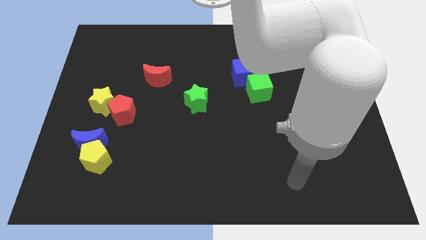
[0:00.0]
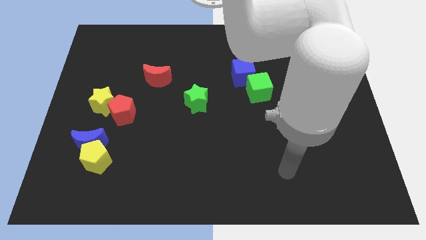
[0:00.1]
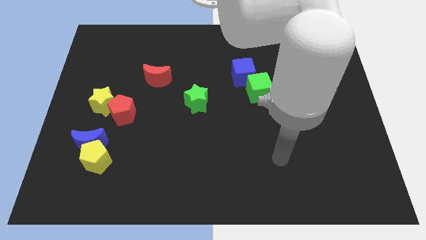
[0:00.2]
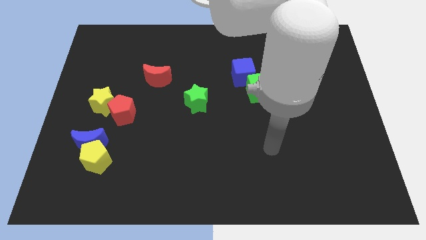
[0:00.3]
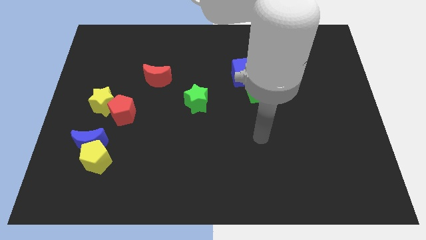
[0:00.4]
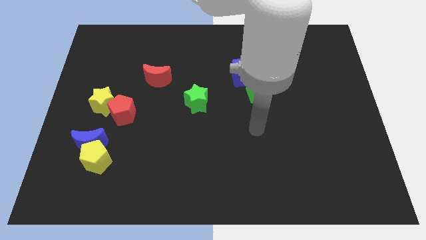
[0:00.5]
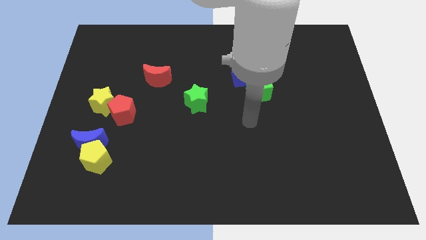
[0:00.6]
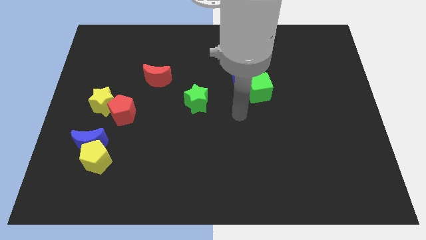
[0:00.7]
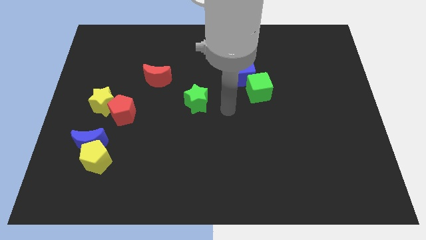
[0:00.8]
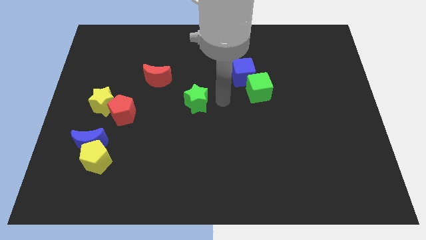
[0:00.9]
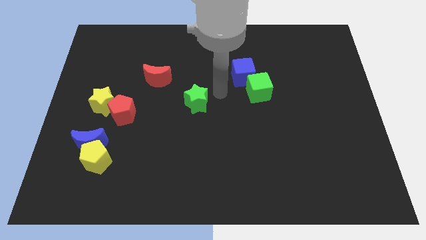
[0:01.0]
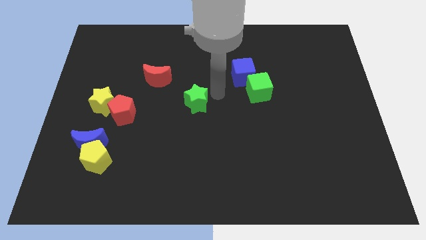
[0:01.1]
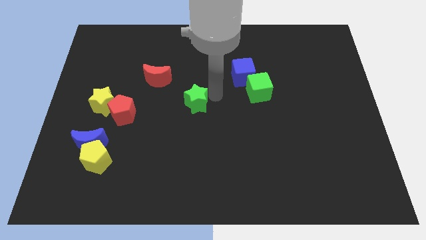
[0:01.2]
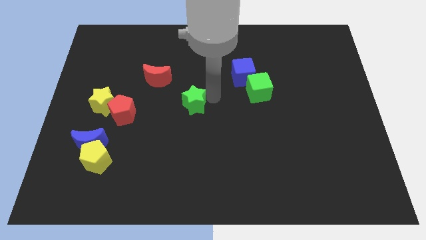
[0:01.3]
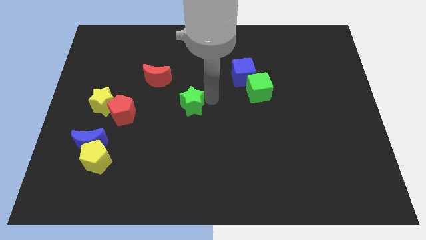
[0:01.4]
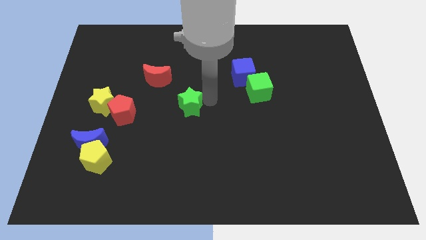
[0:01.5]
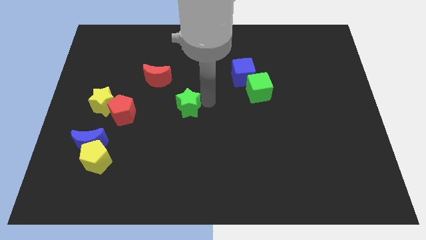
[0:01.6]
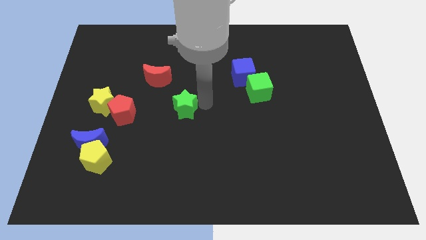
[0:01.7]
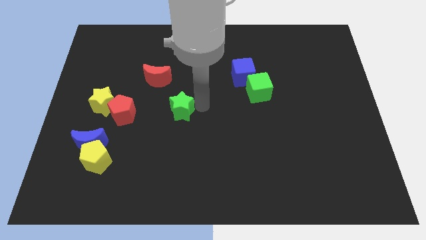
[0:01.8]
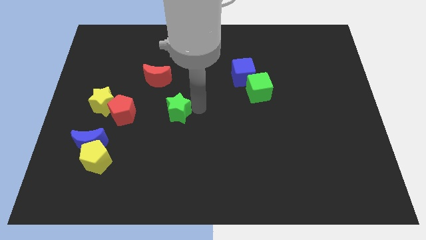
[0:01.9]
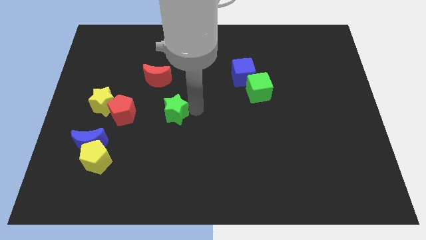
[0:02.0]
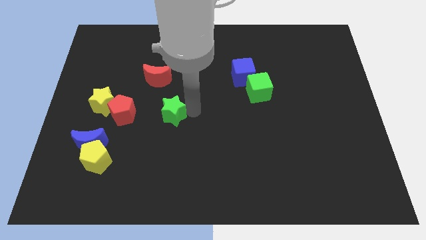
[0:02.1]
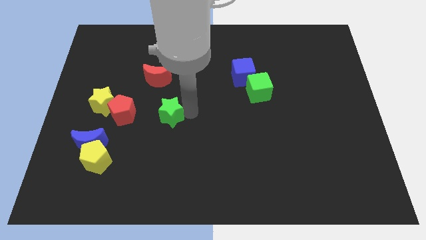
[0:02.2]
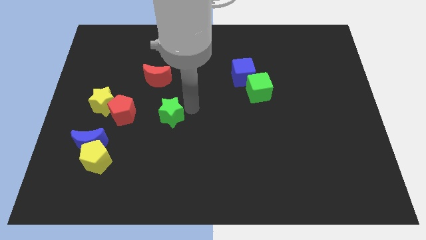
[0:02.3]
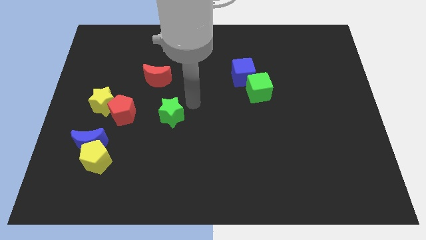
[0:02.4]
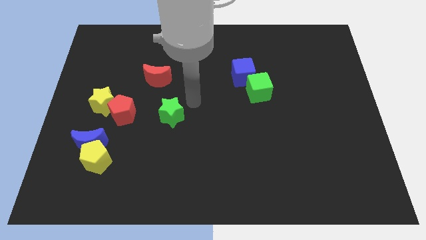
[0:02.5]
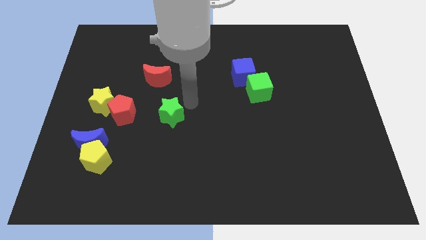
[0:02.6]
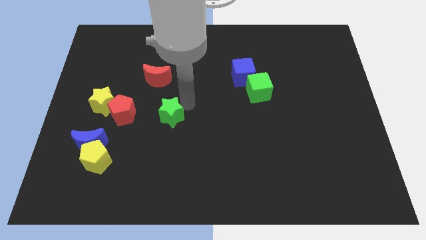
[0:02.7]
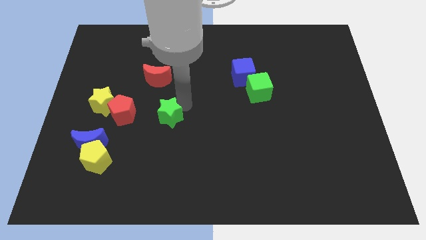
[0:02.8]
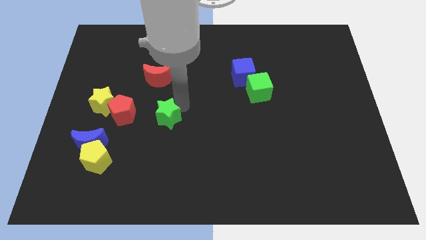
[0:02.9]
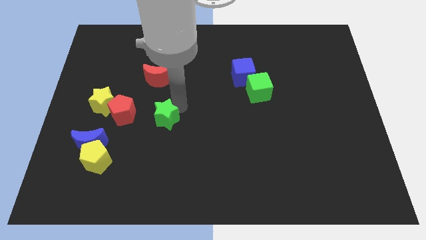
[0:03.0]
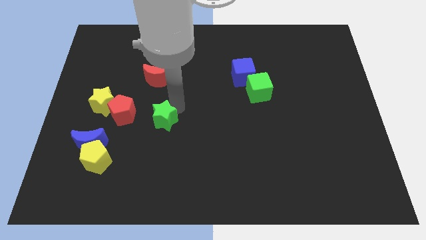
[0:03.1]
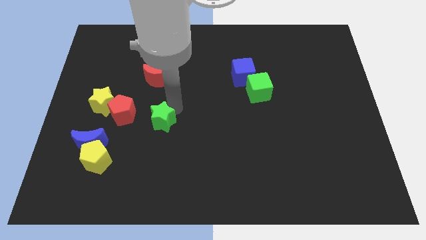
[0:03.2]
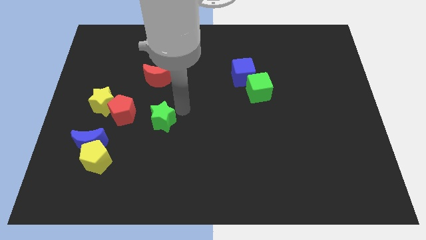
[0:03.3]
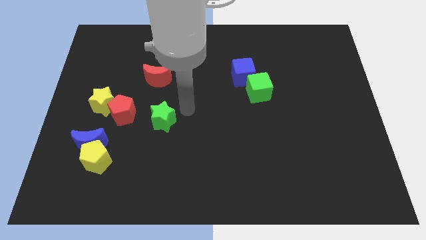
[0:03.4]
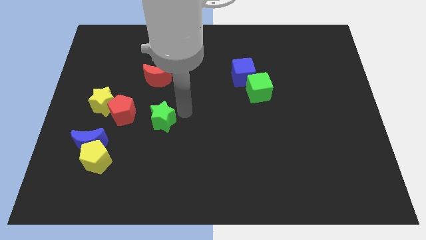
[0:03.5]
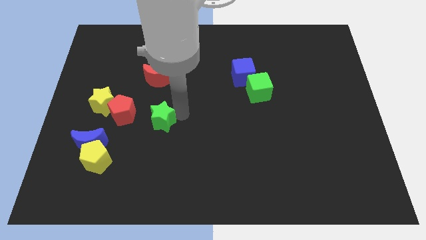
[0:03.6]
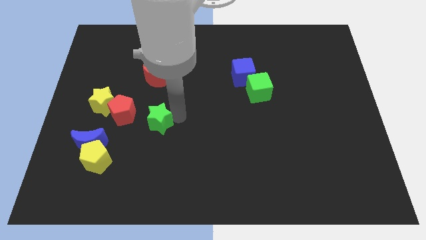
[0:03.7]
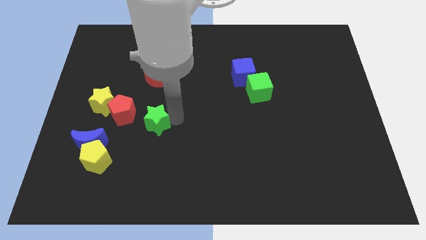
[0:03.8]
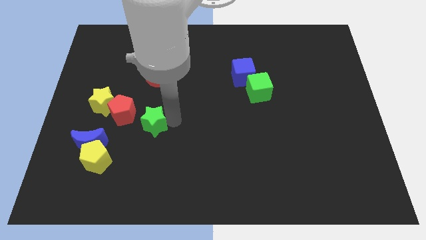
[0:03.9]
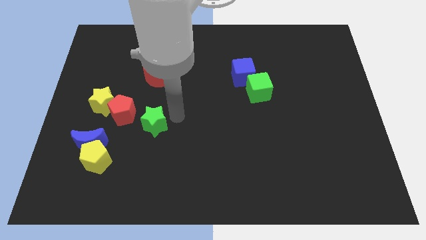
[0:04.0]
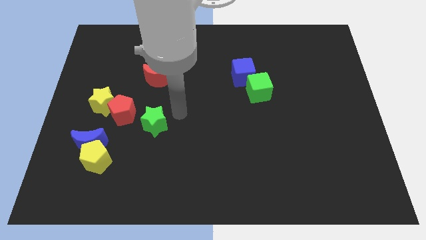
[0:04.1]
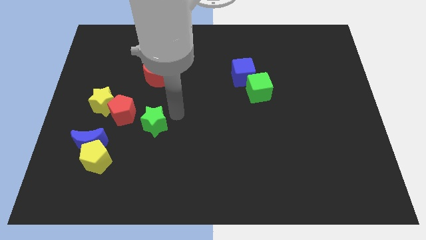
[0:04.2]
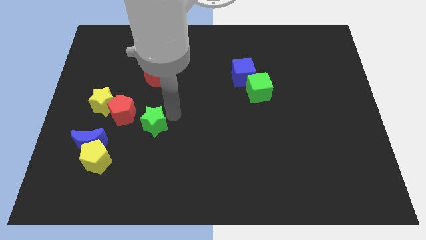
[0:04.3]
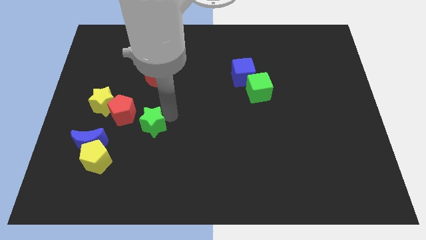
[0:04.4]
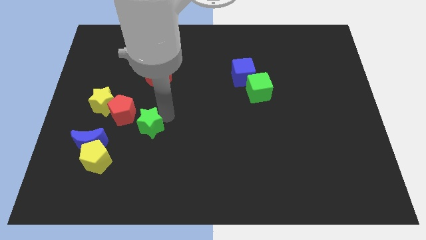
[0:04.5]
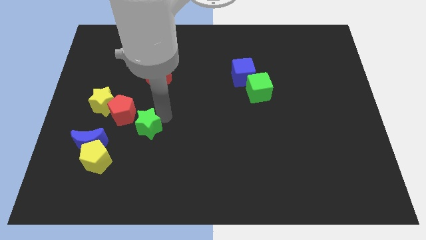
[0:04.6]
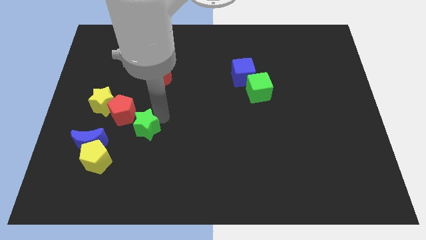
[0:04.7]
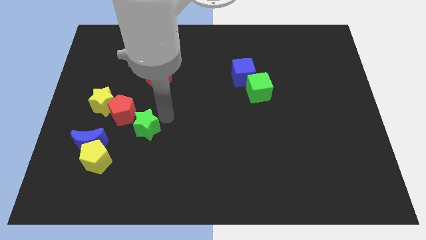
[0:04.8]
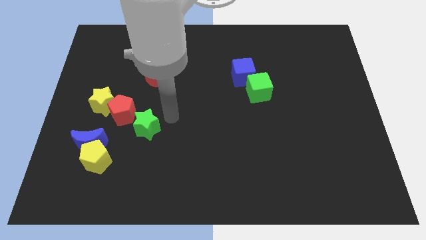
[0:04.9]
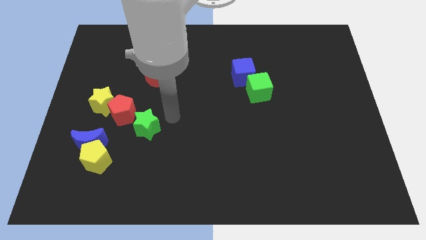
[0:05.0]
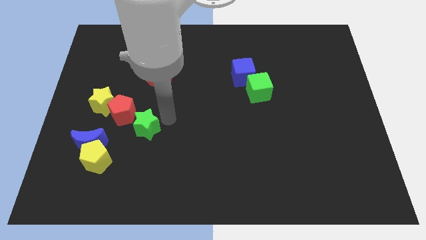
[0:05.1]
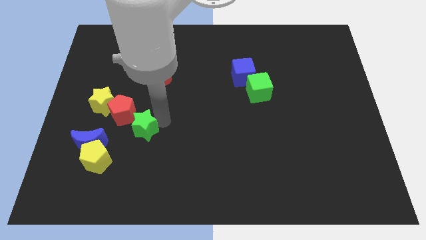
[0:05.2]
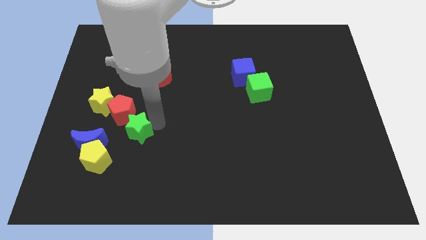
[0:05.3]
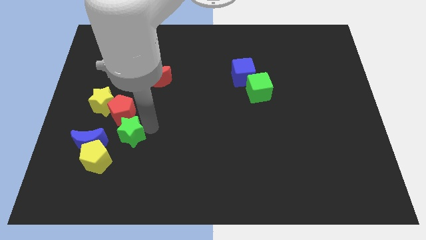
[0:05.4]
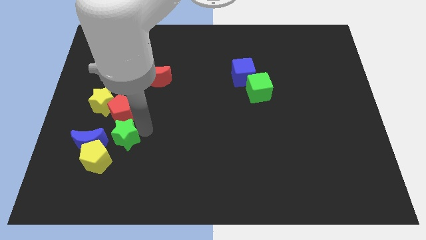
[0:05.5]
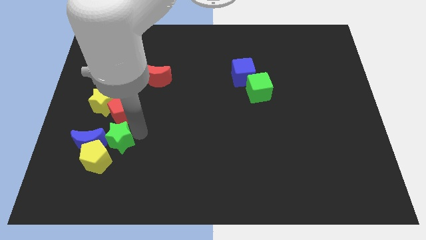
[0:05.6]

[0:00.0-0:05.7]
push the green star to the blue moon
